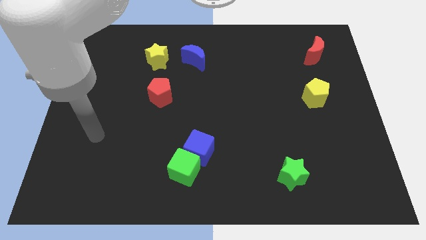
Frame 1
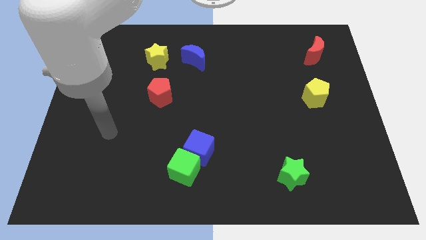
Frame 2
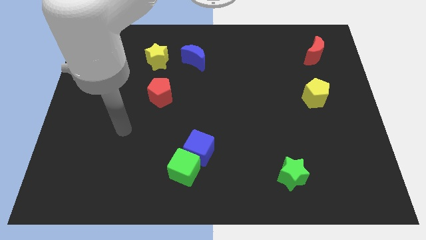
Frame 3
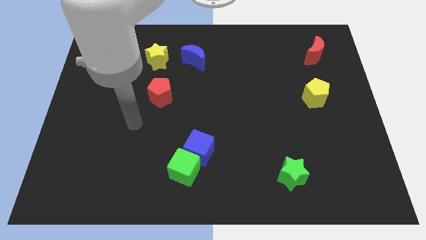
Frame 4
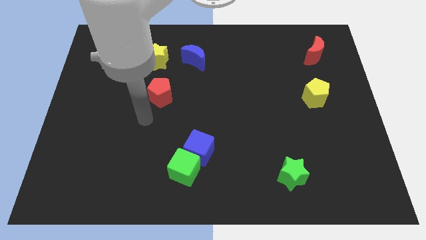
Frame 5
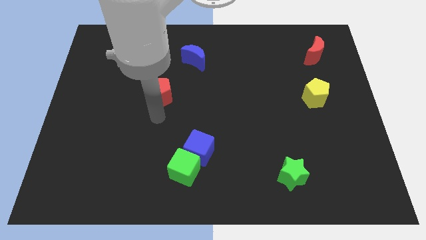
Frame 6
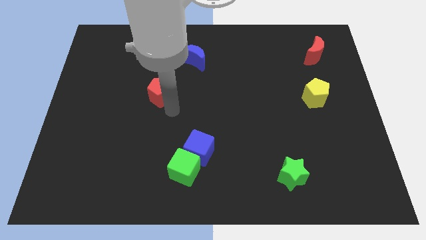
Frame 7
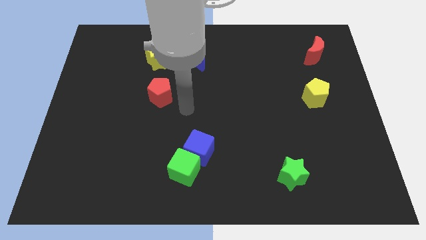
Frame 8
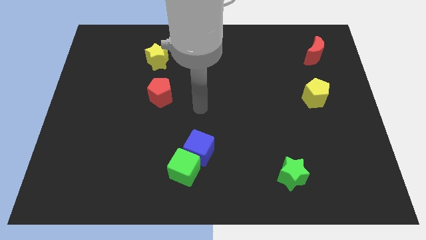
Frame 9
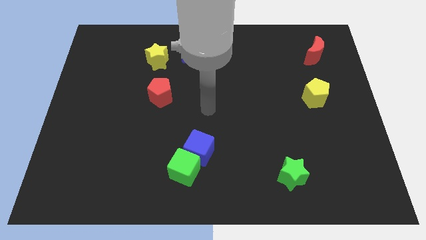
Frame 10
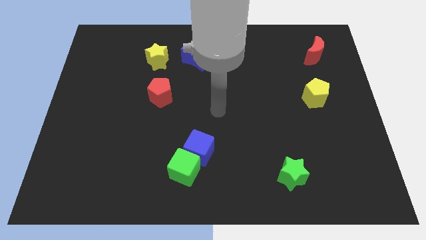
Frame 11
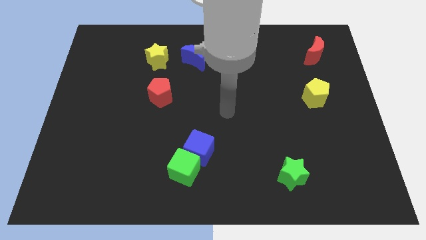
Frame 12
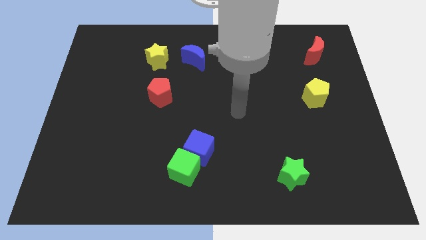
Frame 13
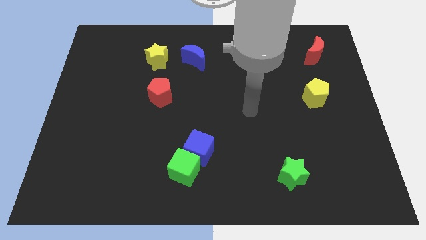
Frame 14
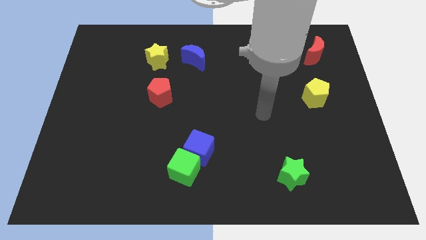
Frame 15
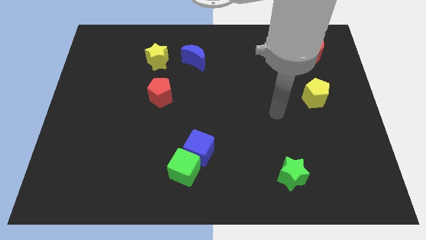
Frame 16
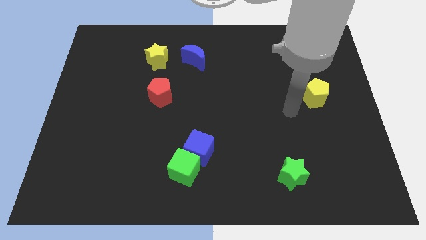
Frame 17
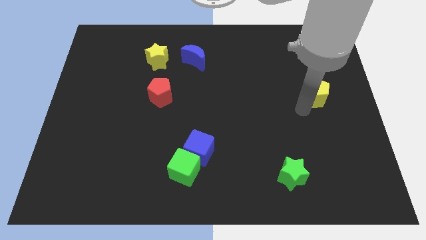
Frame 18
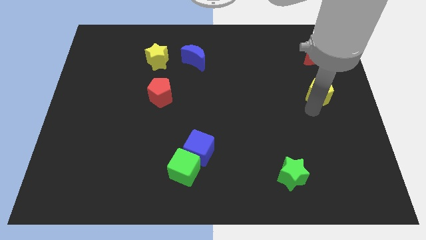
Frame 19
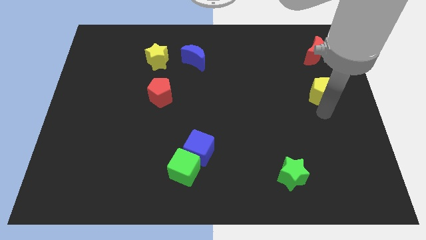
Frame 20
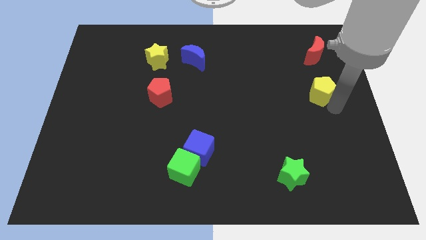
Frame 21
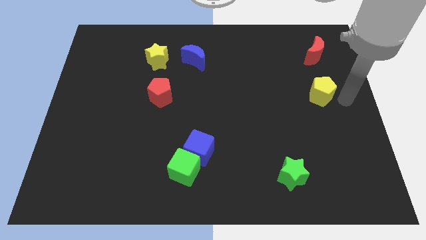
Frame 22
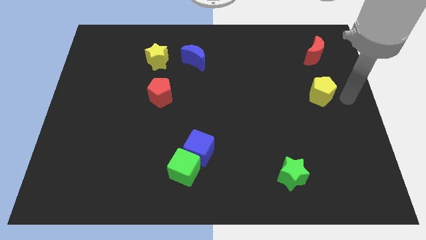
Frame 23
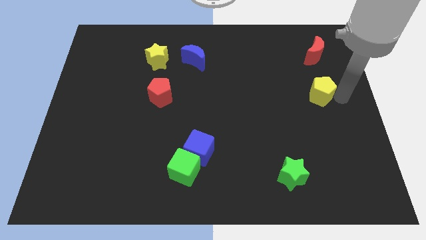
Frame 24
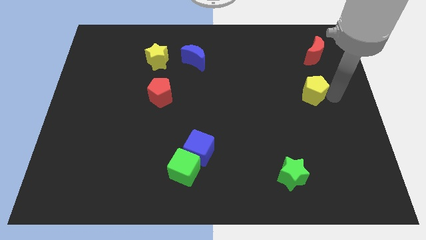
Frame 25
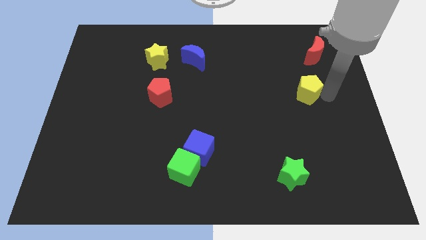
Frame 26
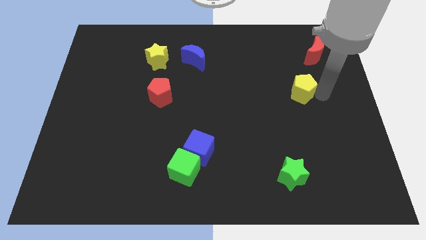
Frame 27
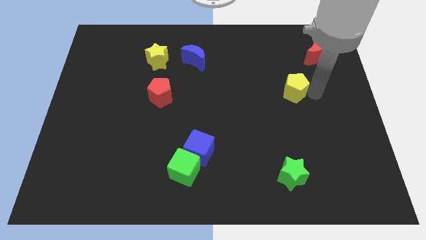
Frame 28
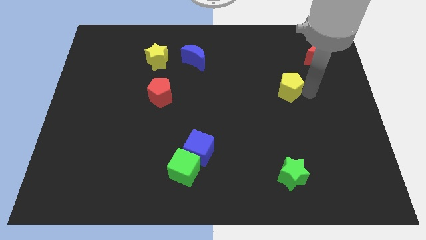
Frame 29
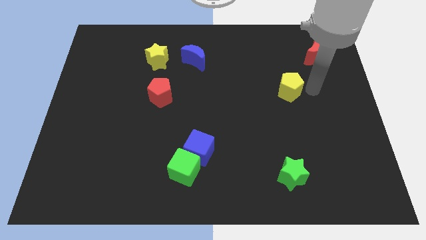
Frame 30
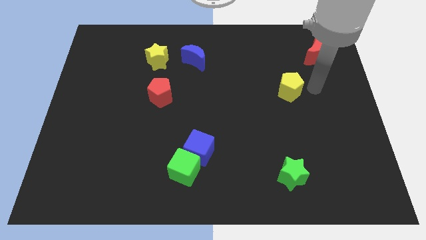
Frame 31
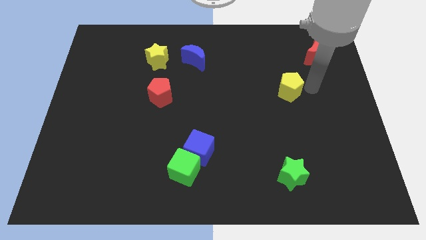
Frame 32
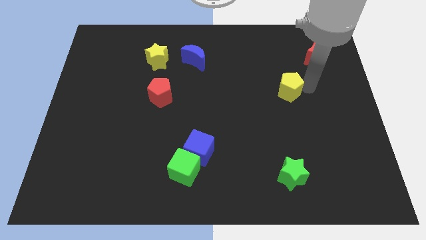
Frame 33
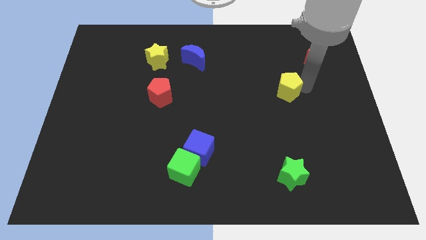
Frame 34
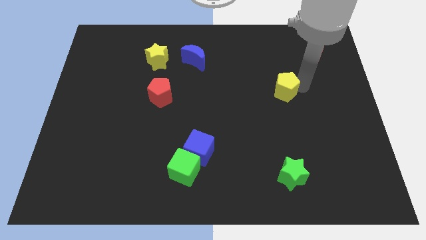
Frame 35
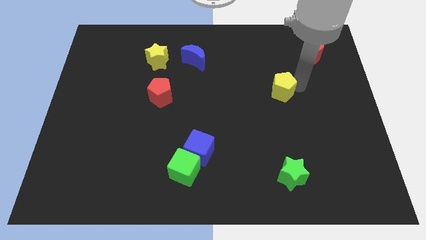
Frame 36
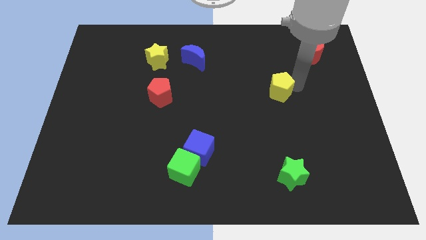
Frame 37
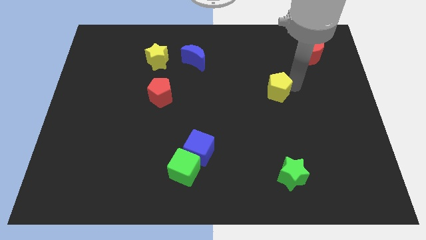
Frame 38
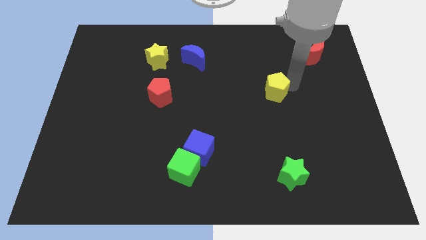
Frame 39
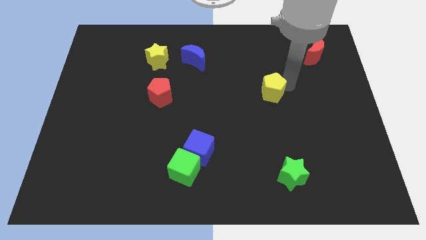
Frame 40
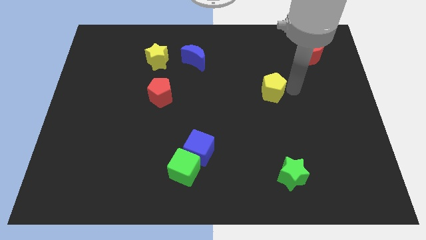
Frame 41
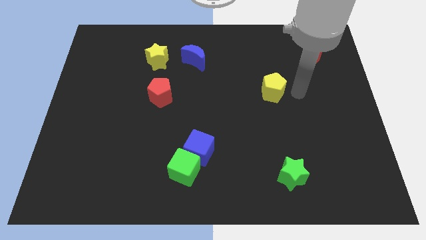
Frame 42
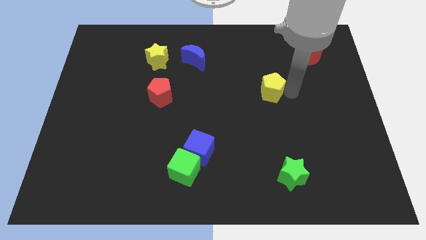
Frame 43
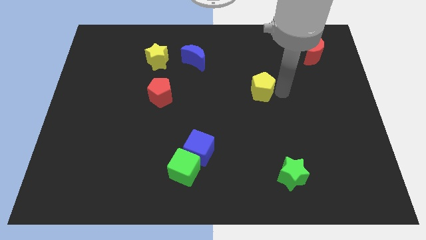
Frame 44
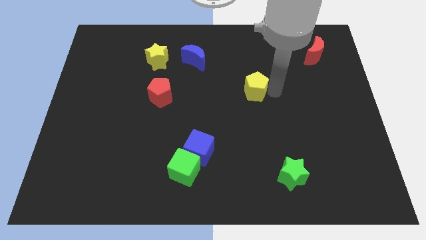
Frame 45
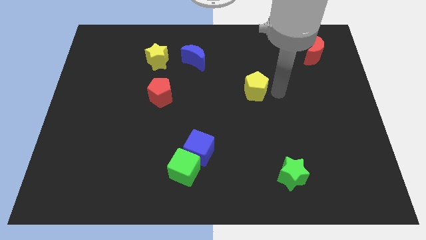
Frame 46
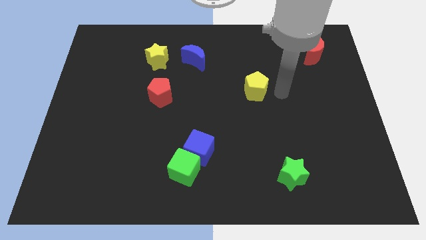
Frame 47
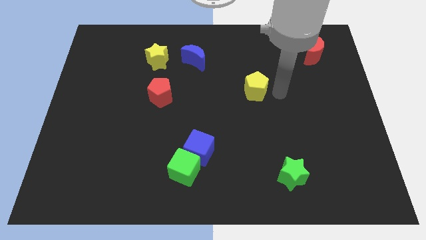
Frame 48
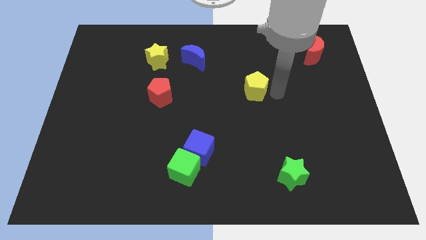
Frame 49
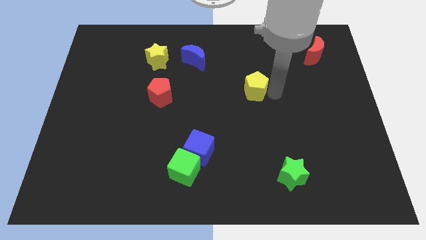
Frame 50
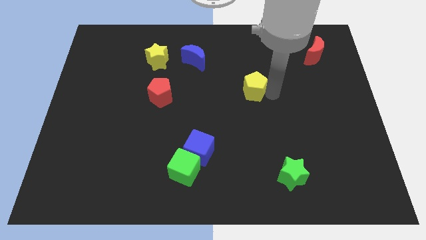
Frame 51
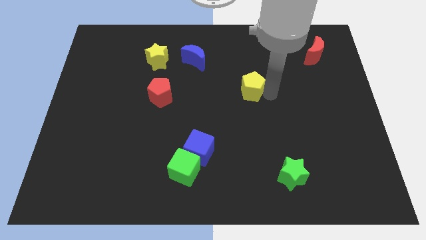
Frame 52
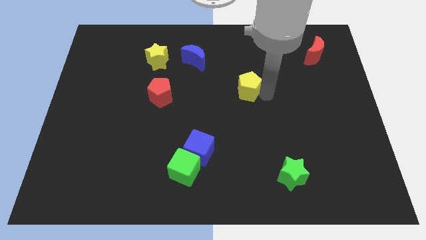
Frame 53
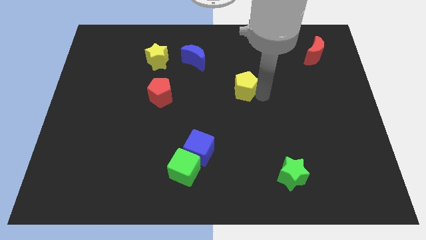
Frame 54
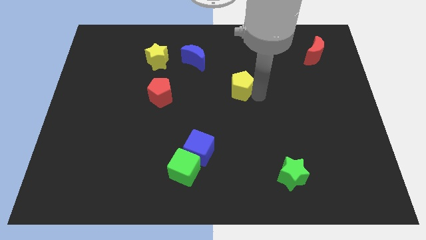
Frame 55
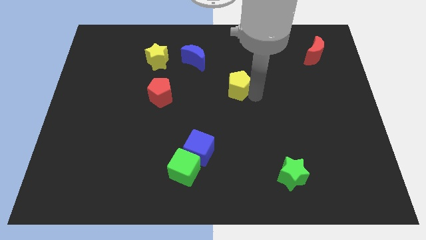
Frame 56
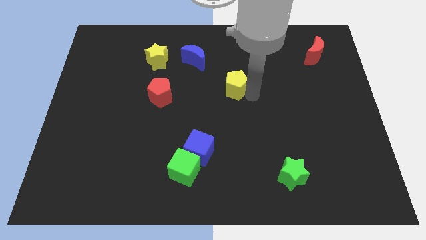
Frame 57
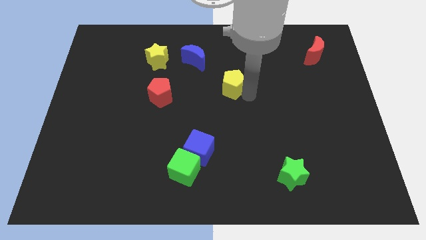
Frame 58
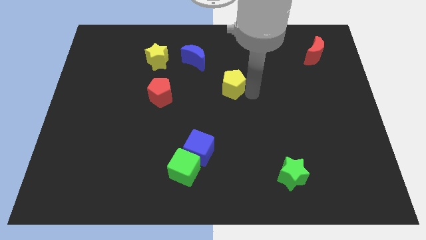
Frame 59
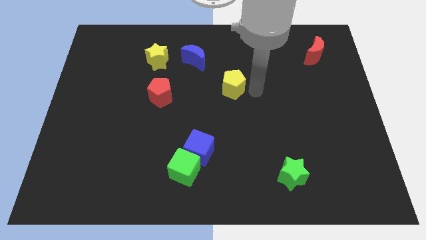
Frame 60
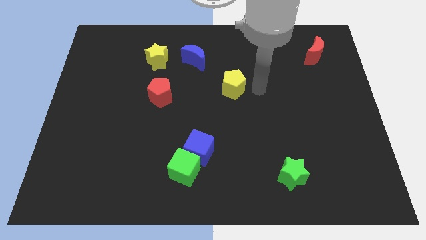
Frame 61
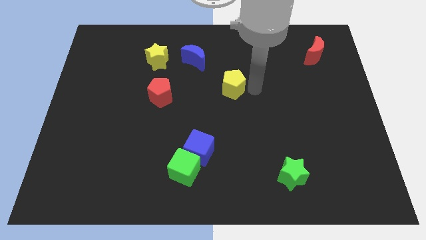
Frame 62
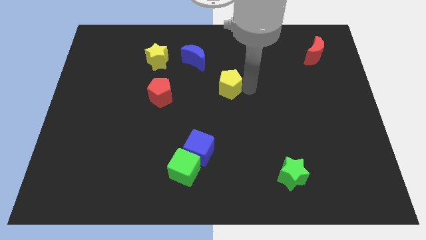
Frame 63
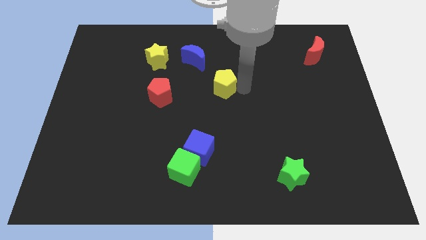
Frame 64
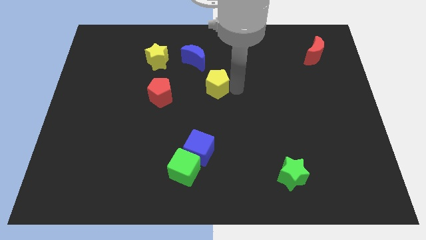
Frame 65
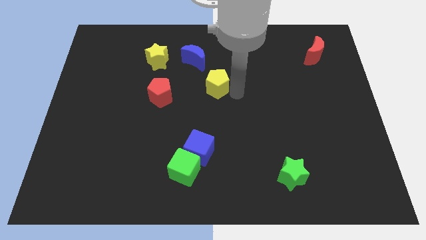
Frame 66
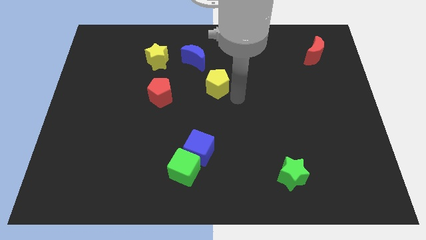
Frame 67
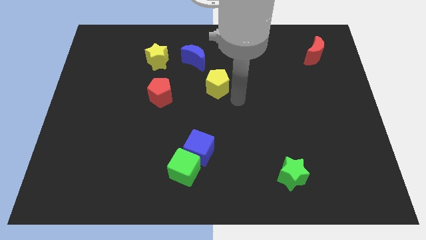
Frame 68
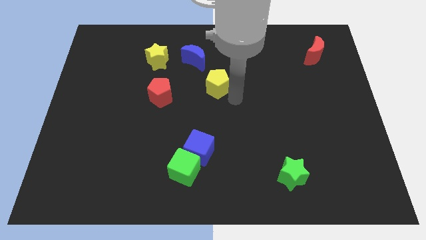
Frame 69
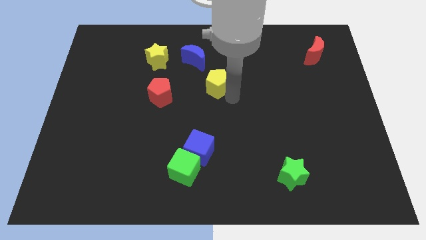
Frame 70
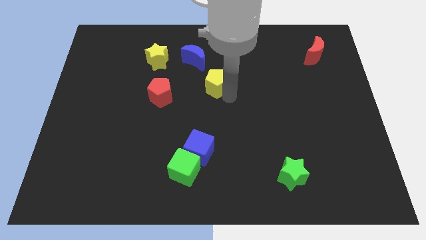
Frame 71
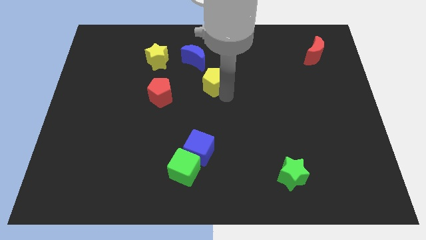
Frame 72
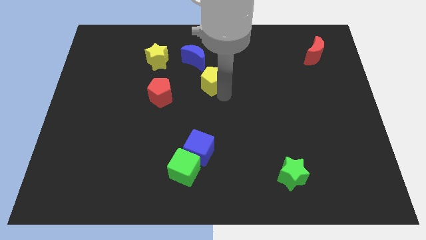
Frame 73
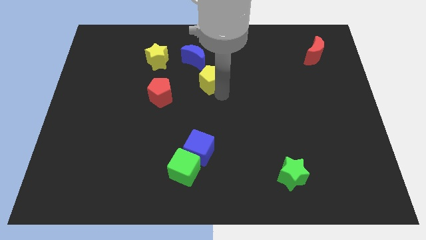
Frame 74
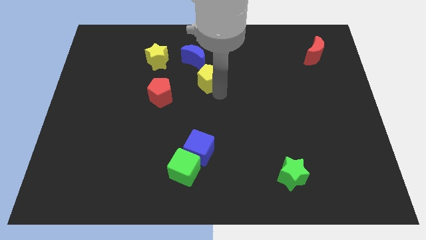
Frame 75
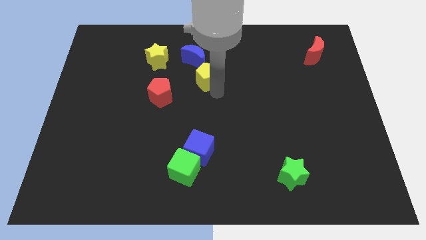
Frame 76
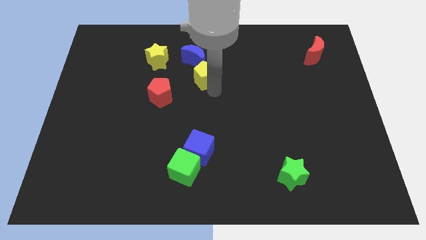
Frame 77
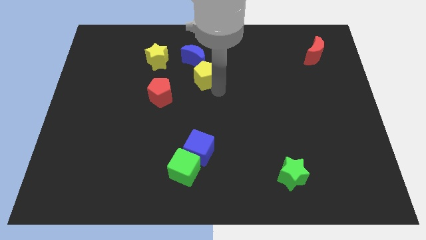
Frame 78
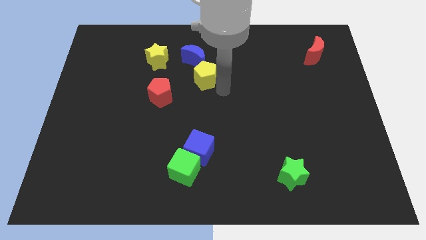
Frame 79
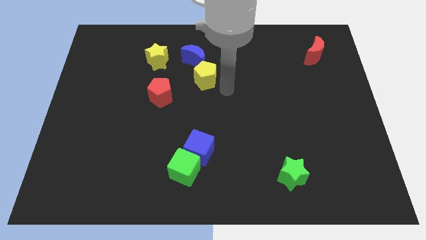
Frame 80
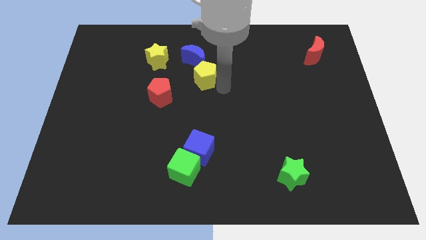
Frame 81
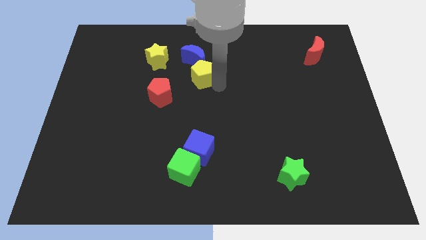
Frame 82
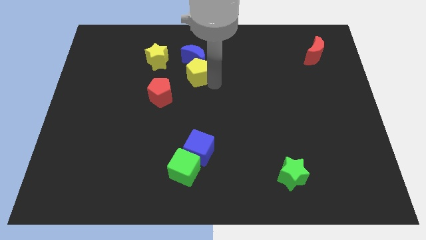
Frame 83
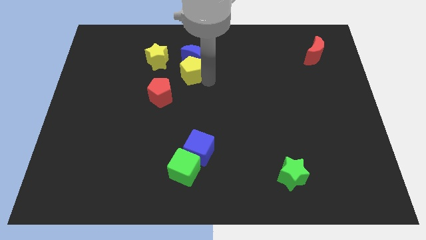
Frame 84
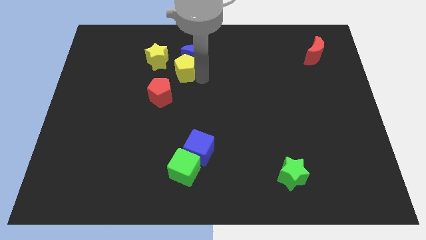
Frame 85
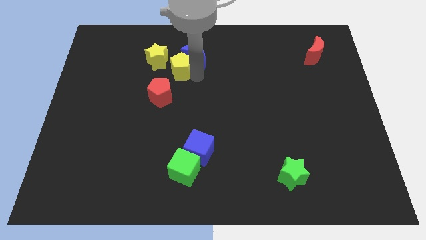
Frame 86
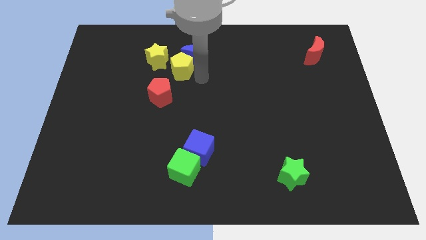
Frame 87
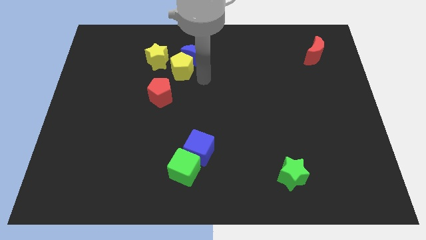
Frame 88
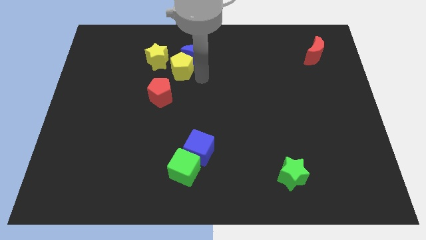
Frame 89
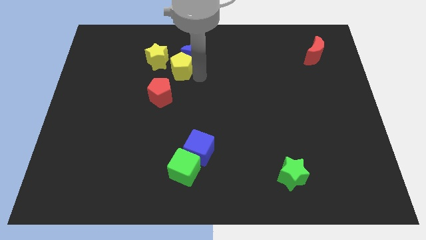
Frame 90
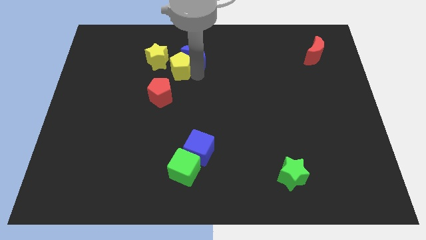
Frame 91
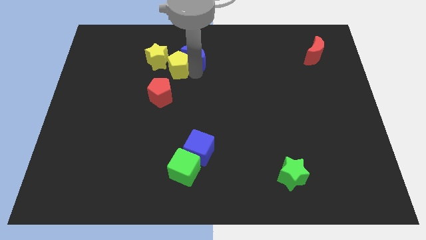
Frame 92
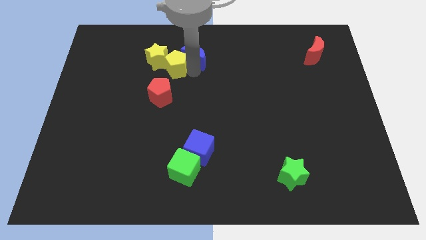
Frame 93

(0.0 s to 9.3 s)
move the yellow pentagon towards the yellow star
